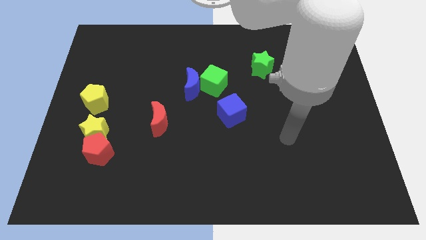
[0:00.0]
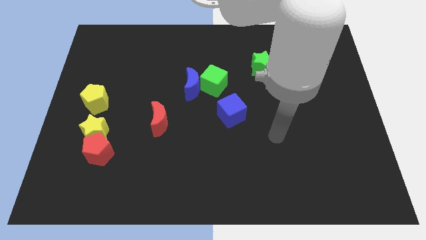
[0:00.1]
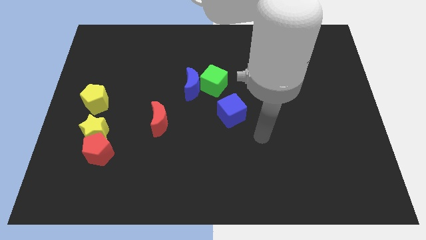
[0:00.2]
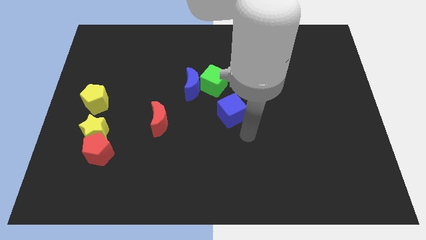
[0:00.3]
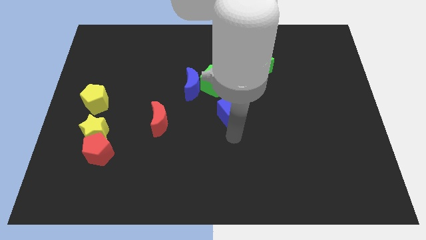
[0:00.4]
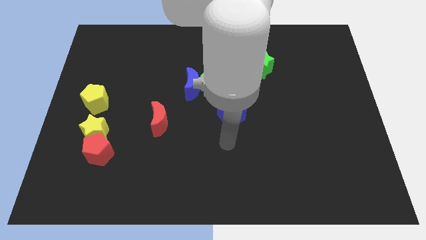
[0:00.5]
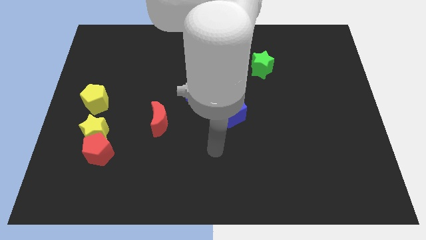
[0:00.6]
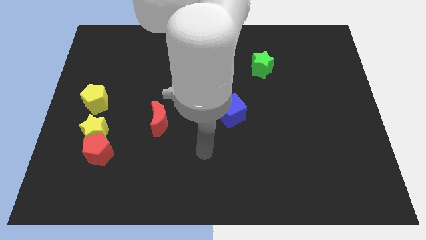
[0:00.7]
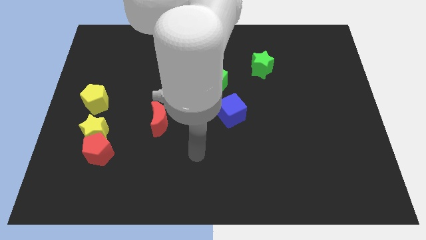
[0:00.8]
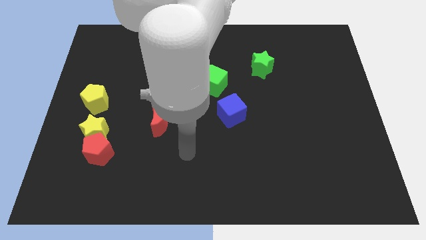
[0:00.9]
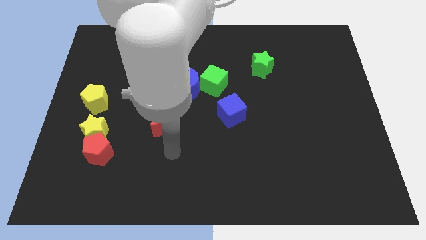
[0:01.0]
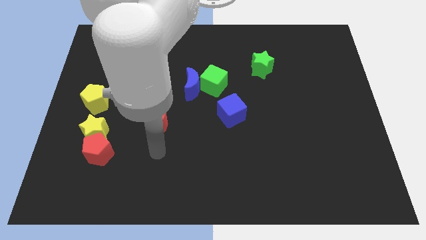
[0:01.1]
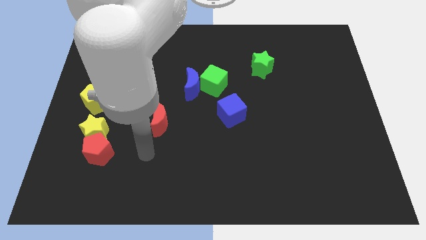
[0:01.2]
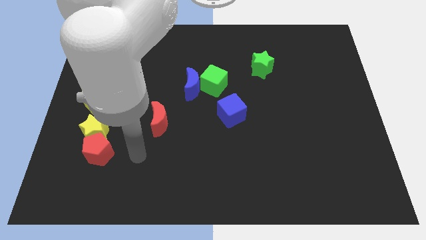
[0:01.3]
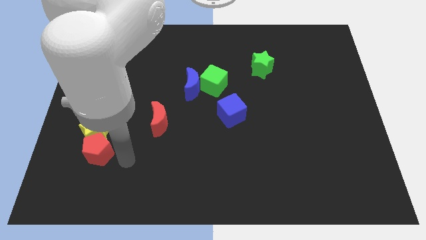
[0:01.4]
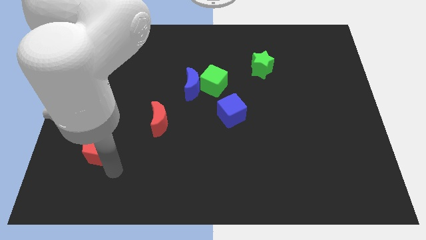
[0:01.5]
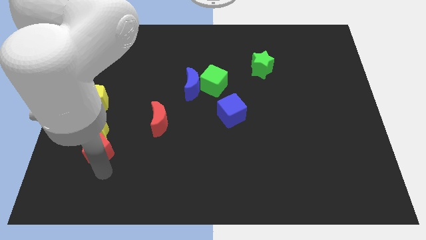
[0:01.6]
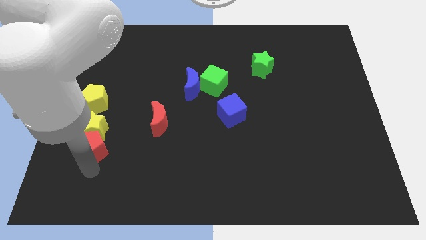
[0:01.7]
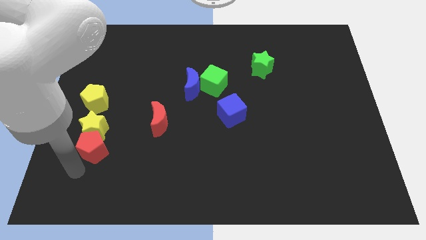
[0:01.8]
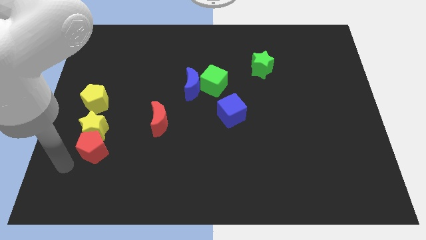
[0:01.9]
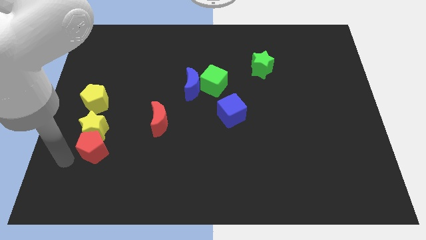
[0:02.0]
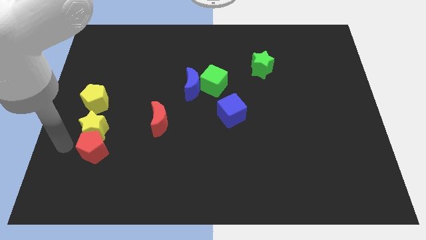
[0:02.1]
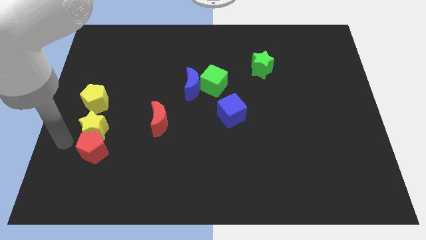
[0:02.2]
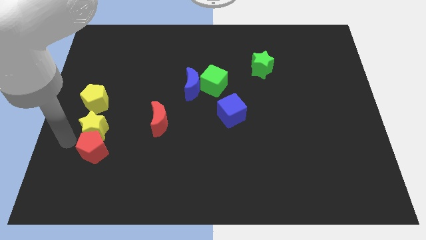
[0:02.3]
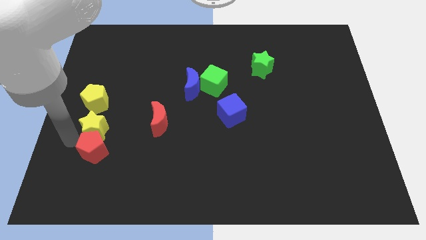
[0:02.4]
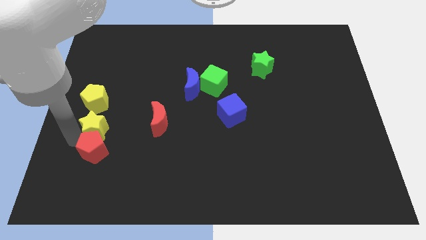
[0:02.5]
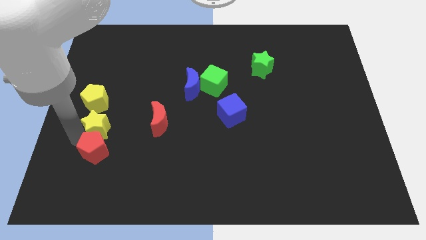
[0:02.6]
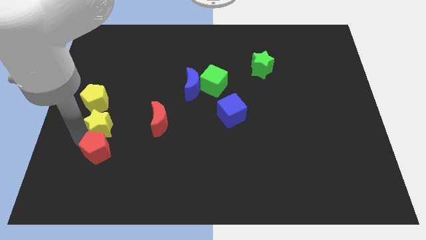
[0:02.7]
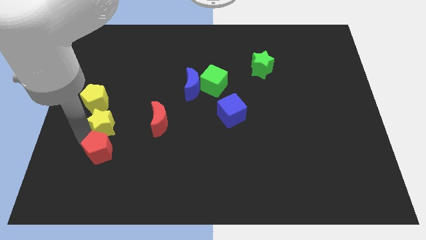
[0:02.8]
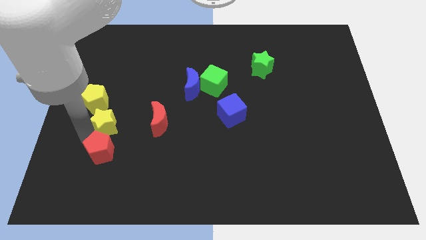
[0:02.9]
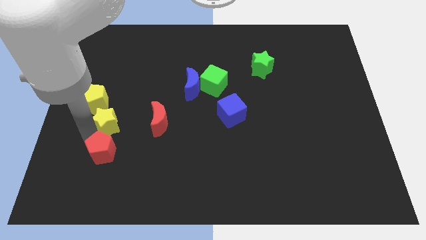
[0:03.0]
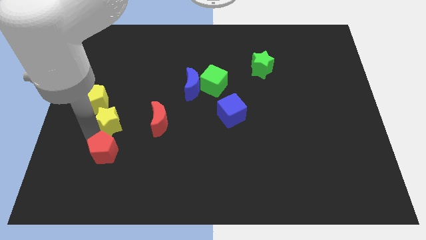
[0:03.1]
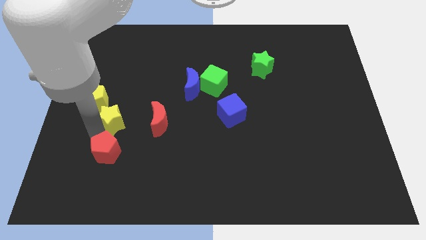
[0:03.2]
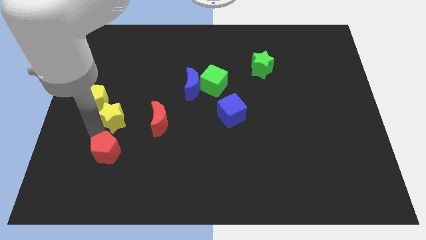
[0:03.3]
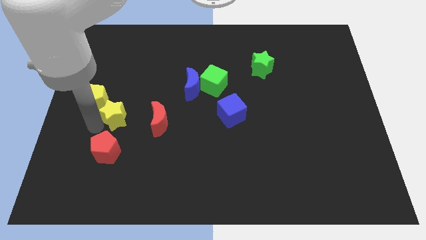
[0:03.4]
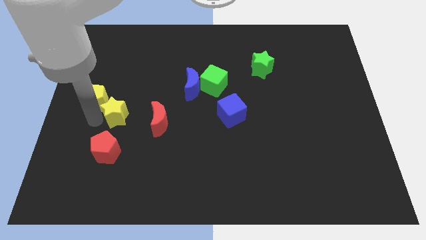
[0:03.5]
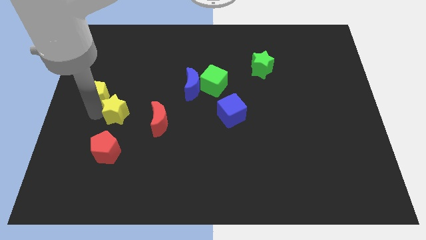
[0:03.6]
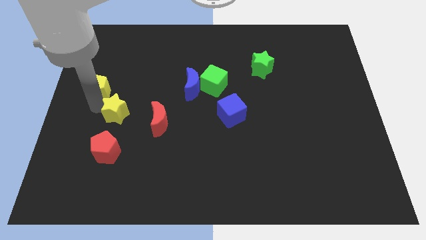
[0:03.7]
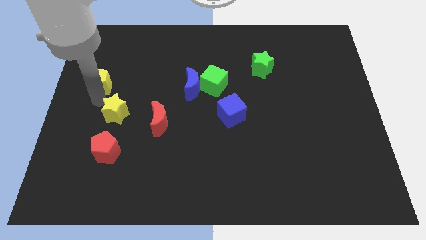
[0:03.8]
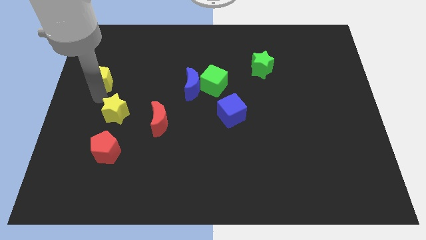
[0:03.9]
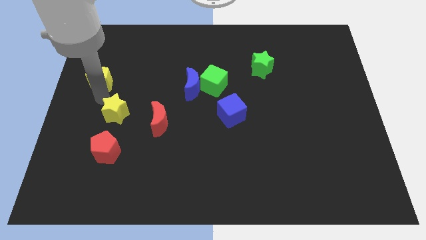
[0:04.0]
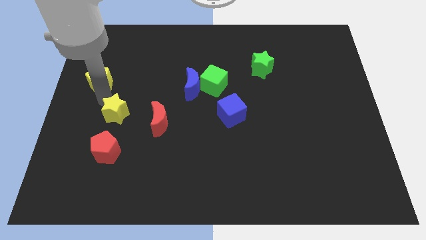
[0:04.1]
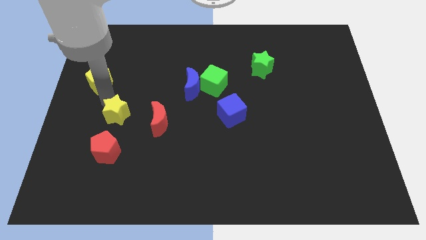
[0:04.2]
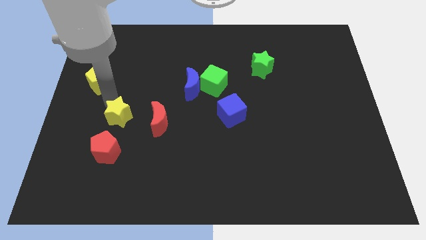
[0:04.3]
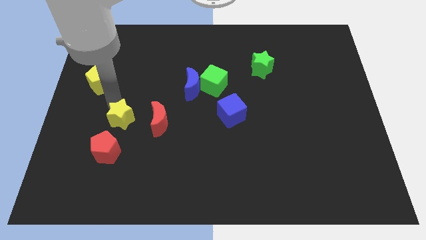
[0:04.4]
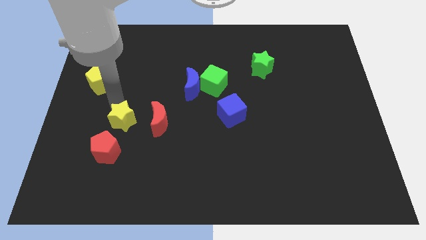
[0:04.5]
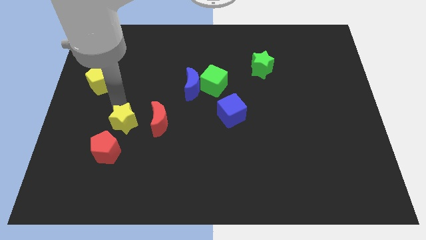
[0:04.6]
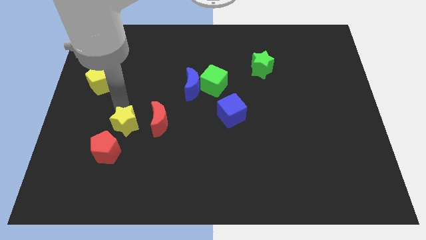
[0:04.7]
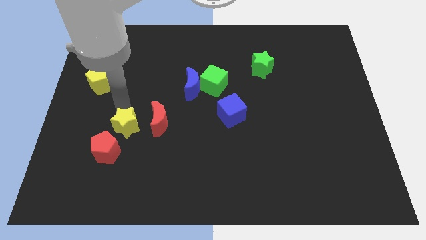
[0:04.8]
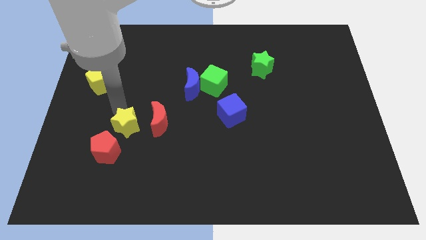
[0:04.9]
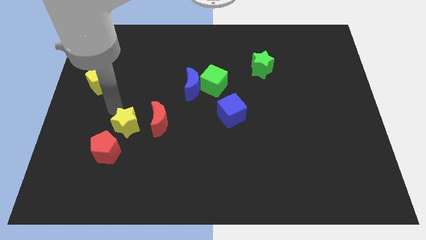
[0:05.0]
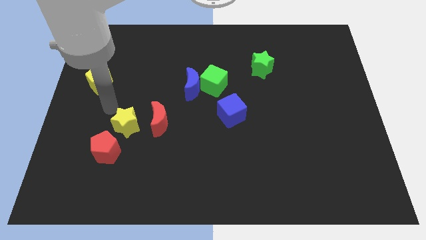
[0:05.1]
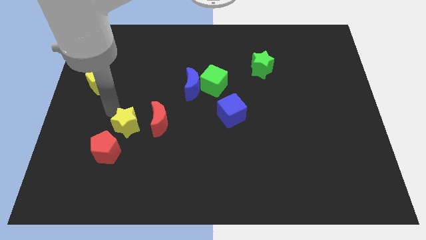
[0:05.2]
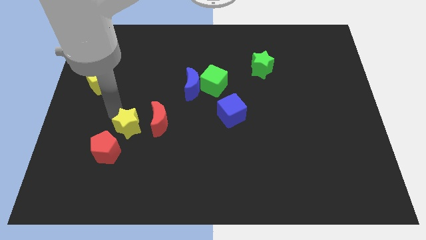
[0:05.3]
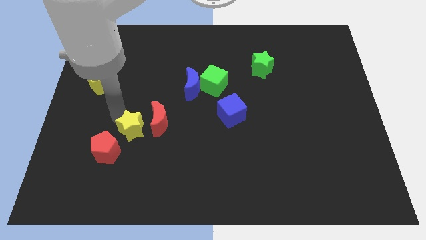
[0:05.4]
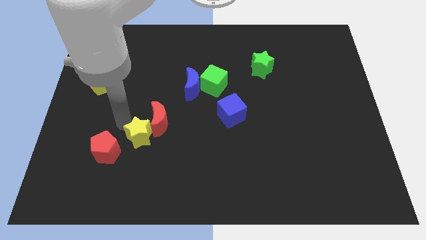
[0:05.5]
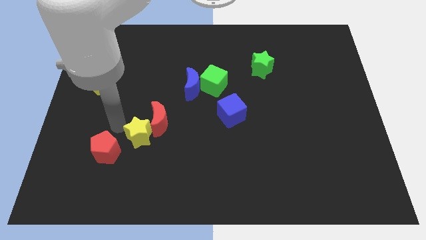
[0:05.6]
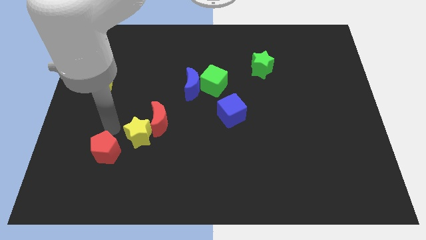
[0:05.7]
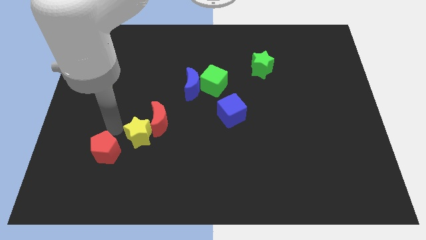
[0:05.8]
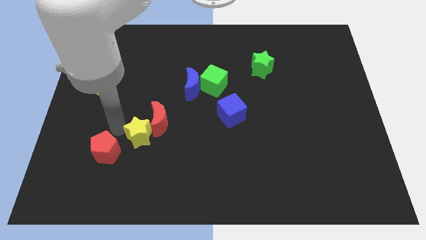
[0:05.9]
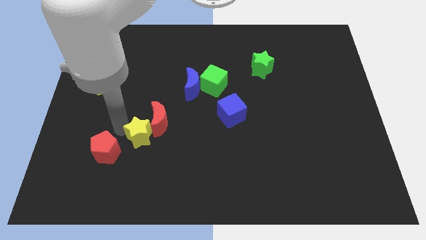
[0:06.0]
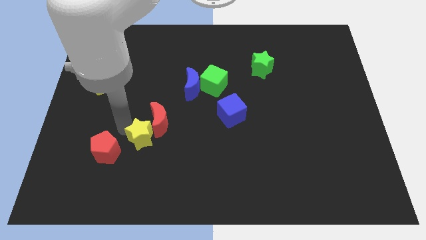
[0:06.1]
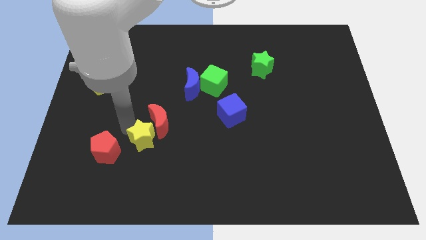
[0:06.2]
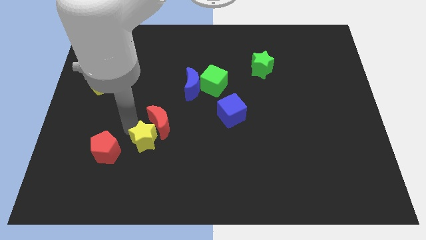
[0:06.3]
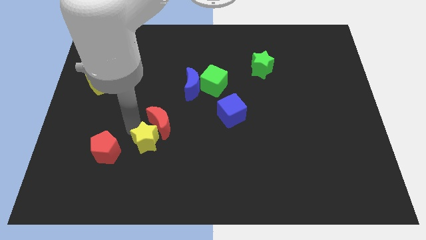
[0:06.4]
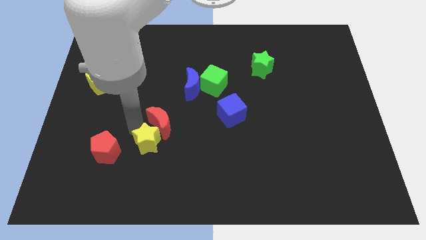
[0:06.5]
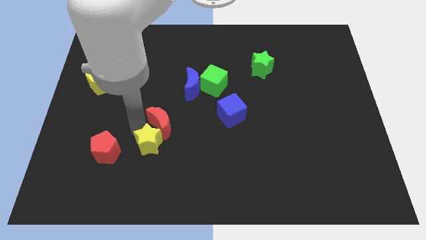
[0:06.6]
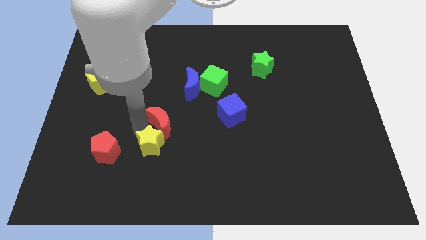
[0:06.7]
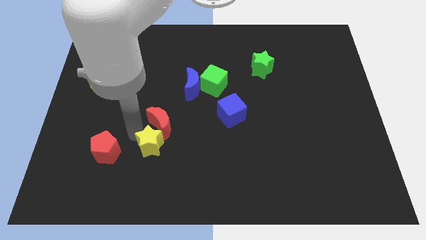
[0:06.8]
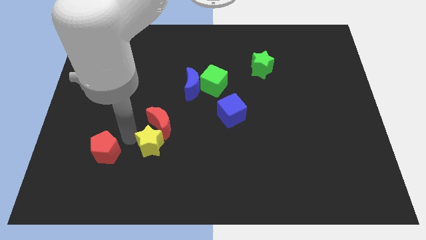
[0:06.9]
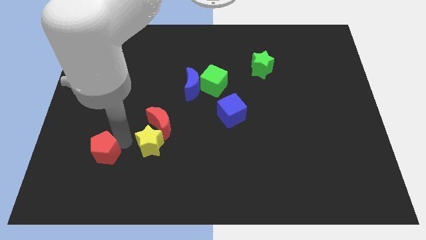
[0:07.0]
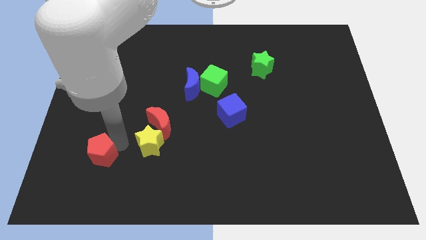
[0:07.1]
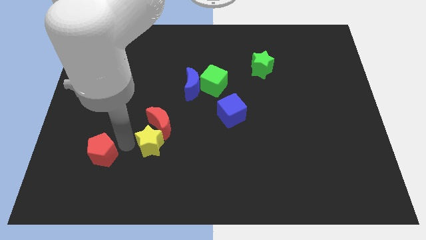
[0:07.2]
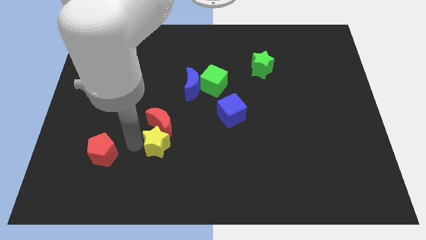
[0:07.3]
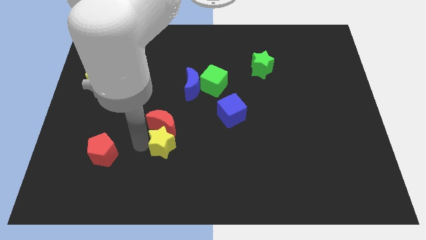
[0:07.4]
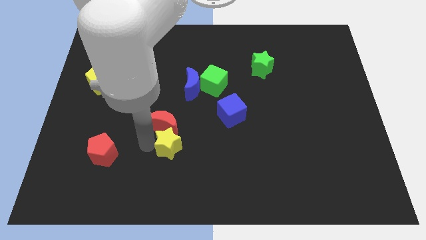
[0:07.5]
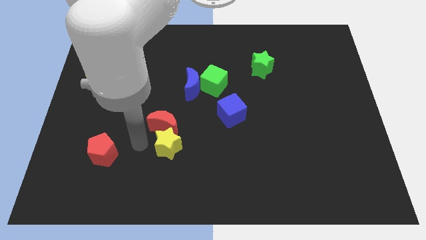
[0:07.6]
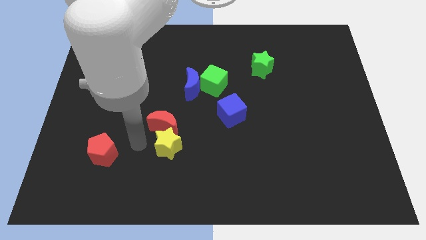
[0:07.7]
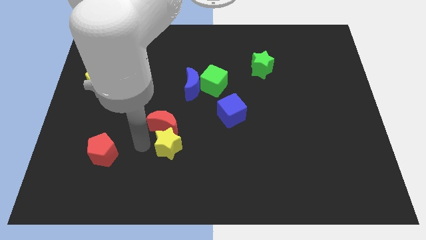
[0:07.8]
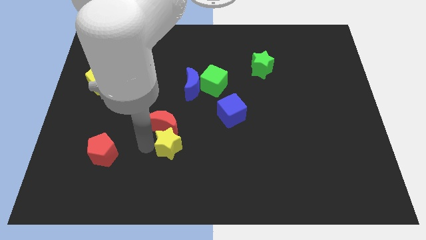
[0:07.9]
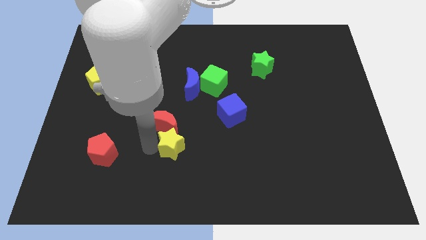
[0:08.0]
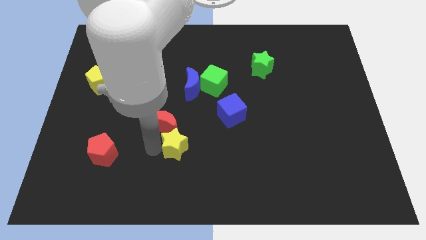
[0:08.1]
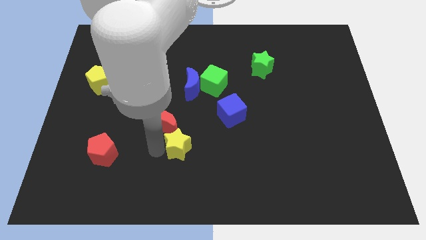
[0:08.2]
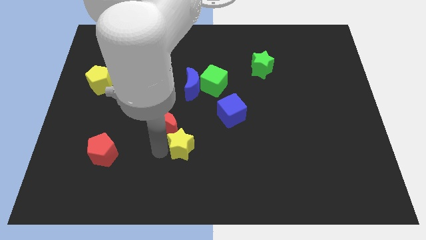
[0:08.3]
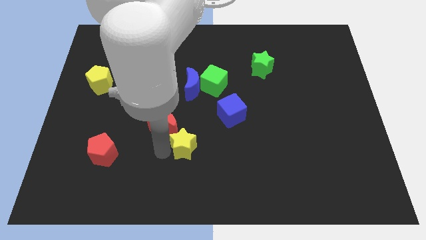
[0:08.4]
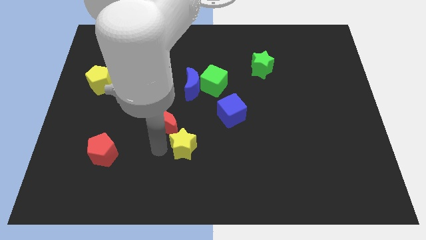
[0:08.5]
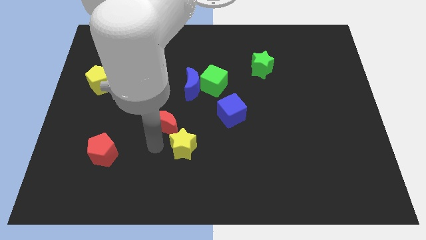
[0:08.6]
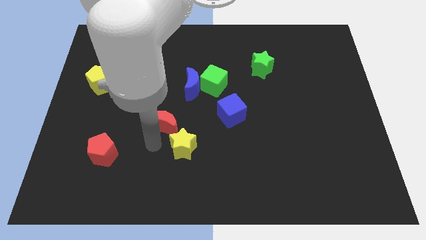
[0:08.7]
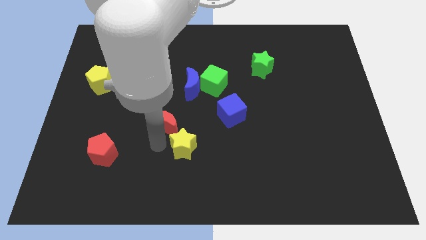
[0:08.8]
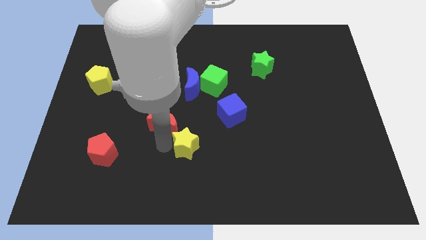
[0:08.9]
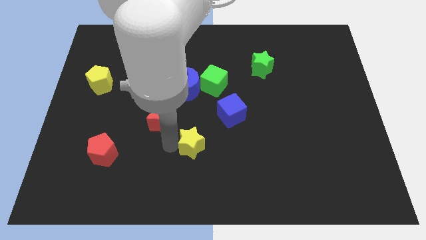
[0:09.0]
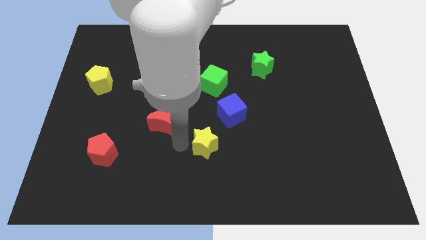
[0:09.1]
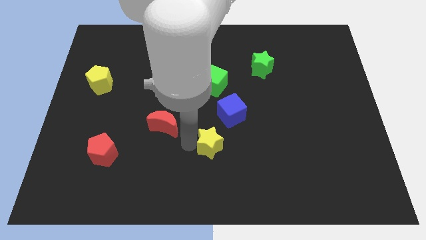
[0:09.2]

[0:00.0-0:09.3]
push the yellow star below the blue cube
